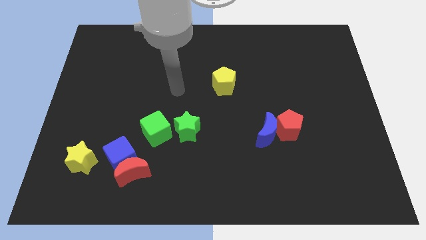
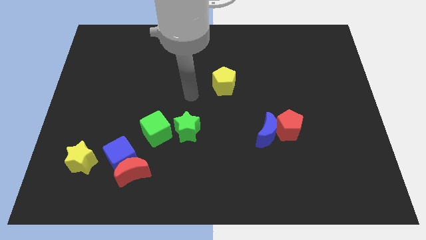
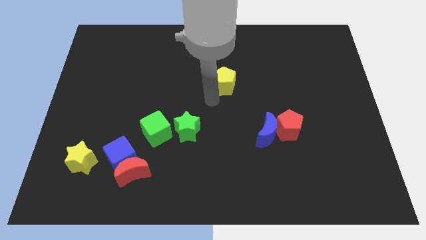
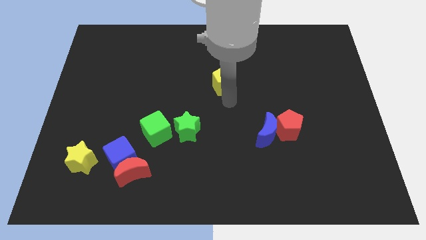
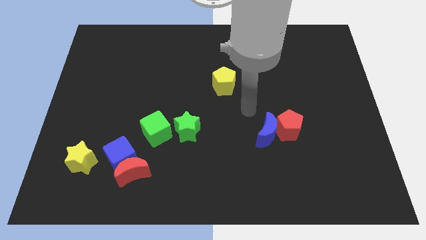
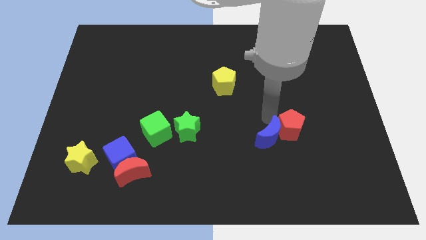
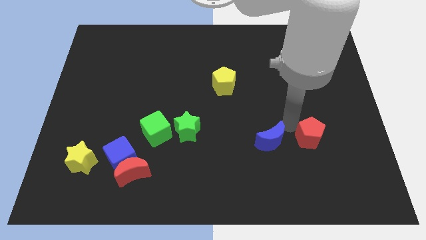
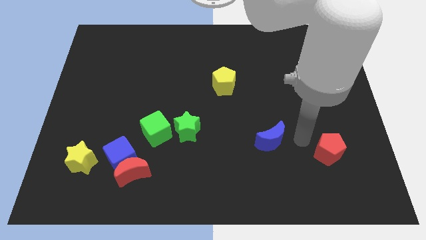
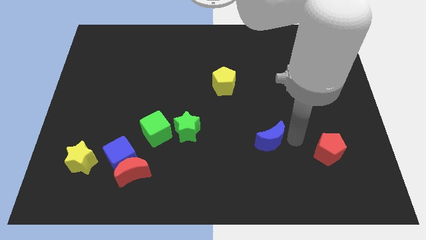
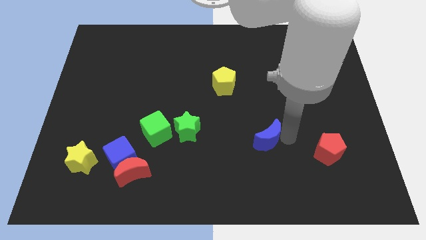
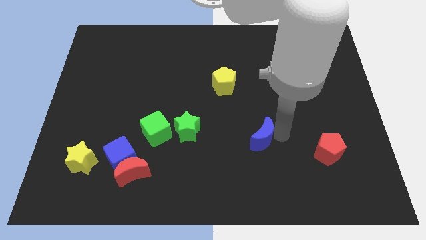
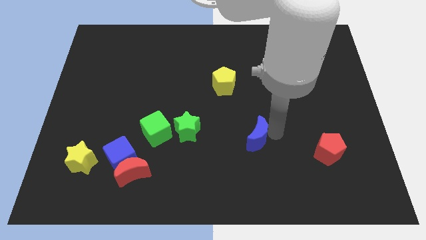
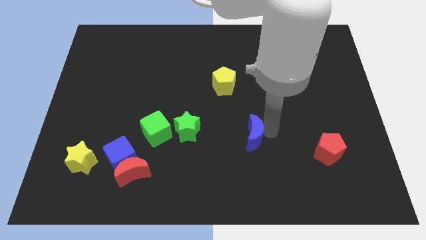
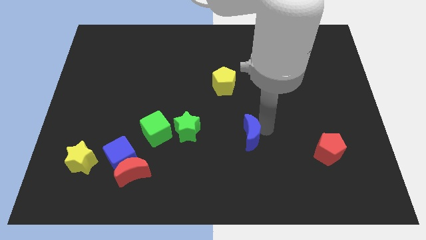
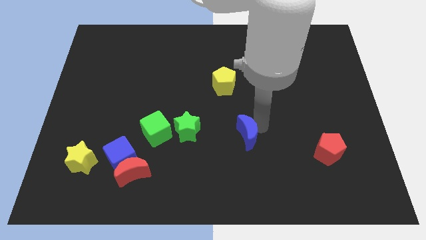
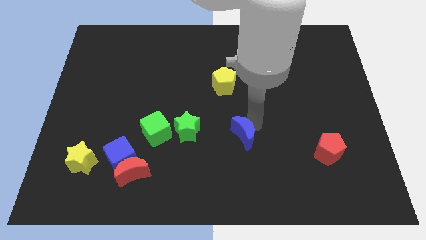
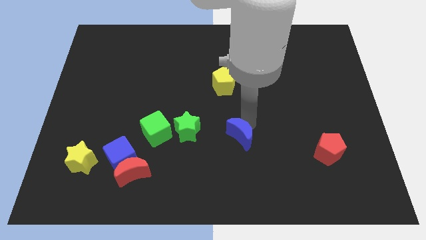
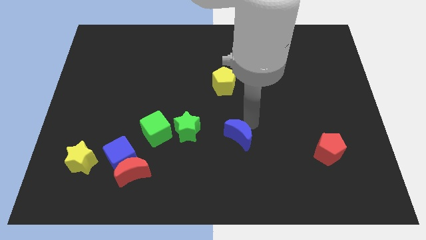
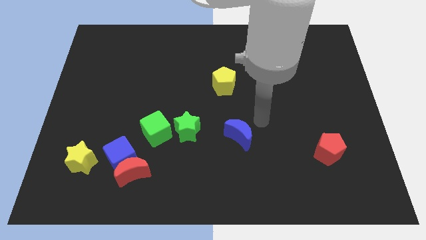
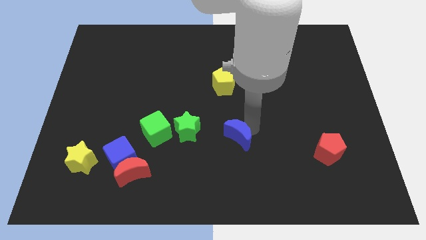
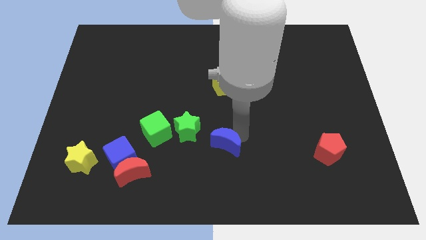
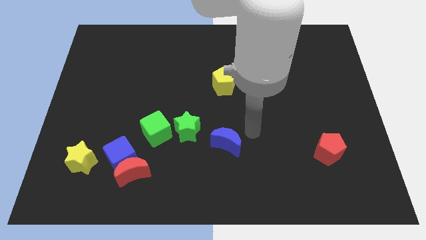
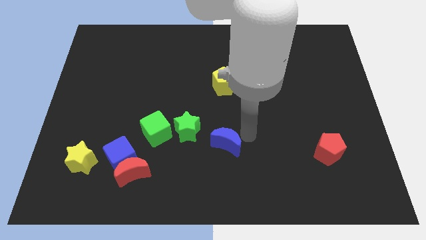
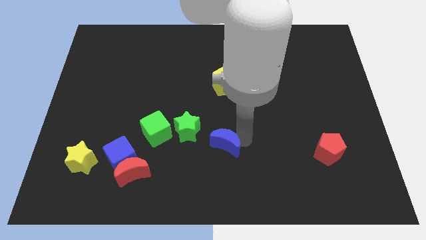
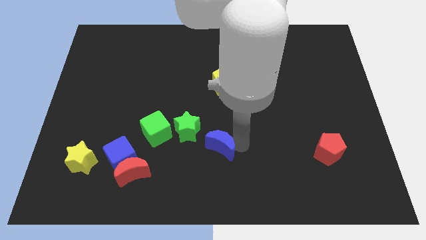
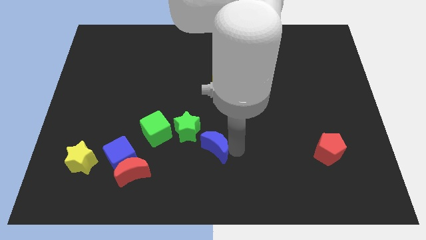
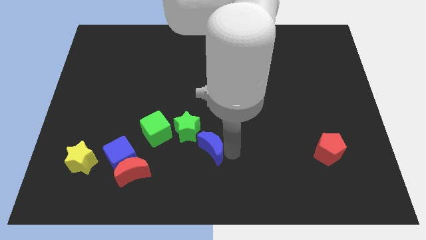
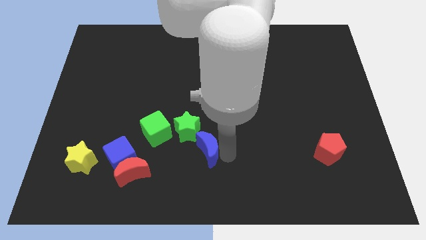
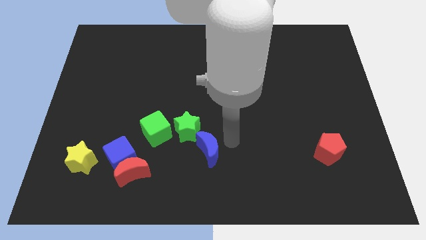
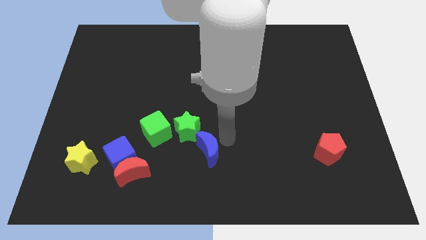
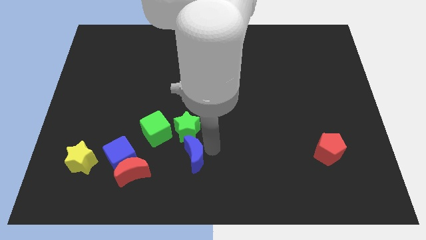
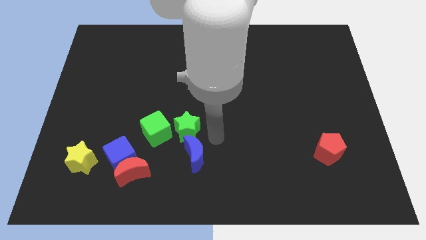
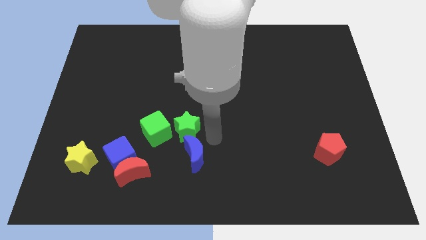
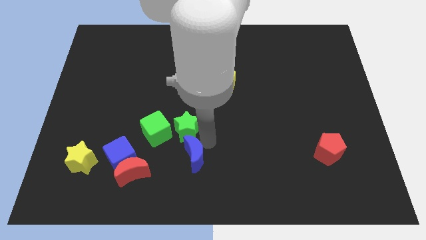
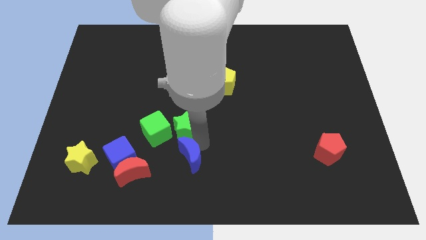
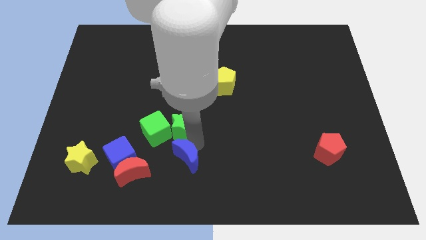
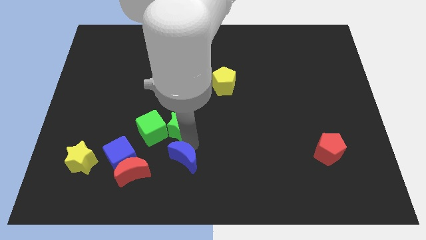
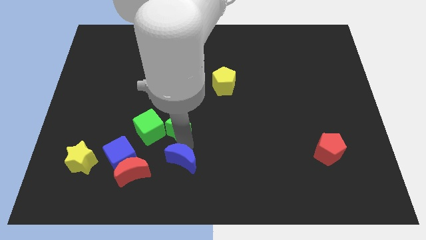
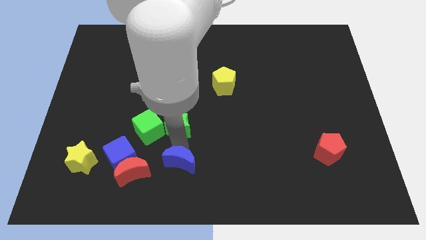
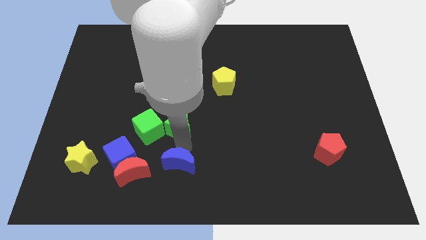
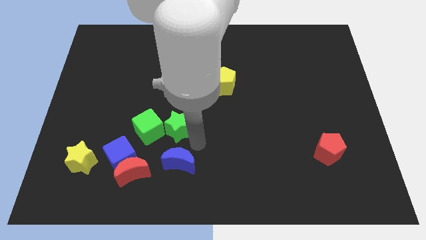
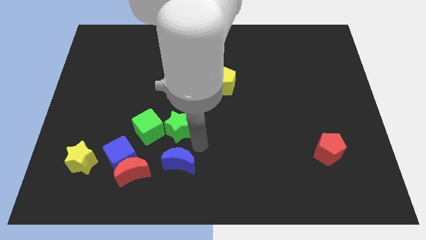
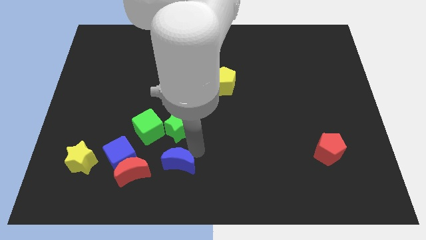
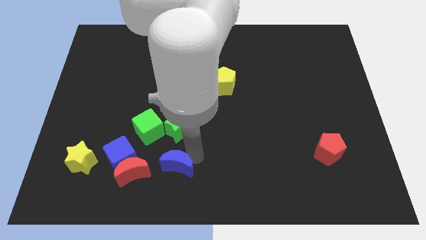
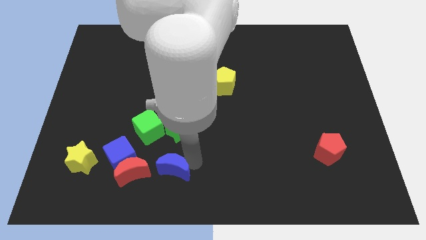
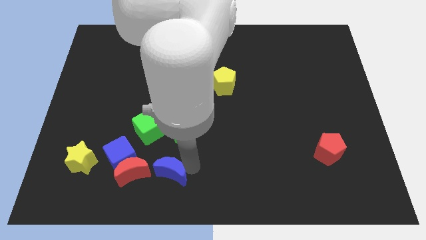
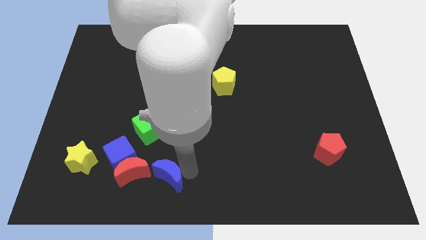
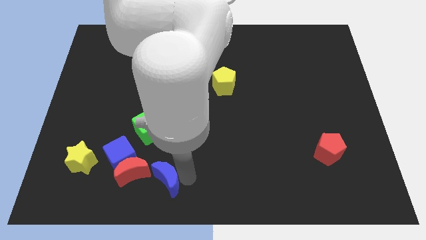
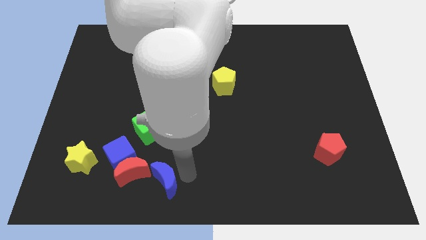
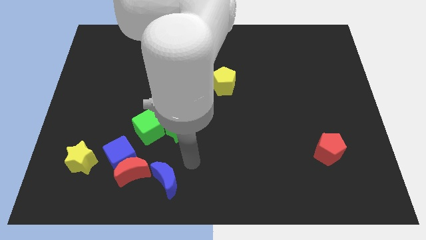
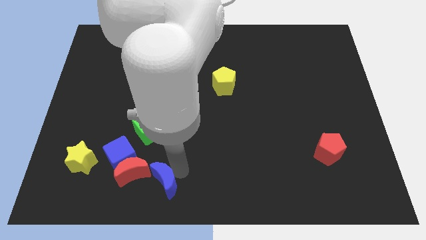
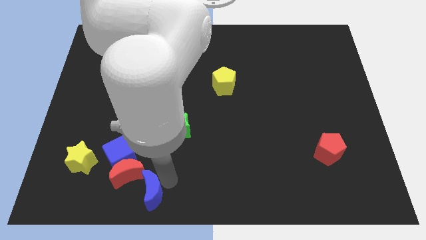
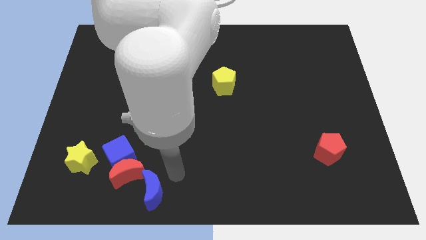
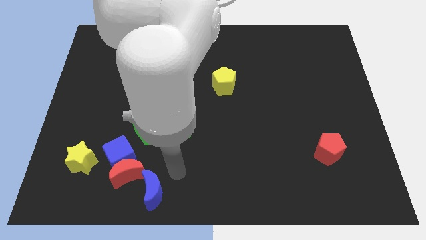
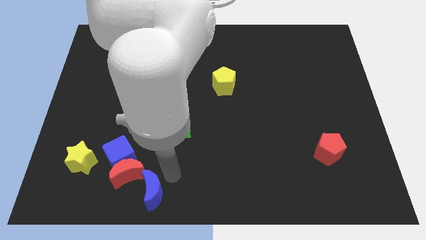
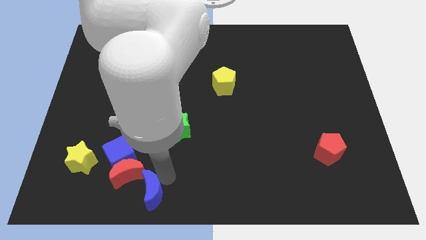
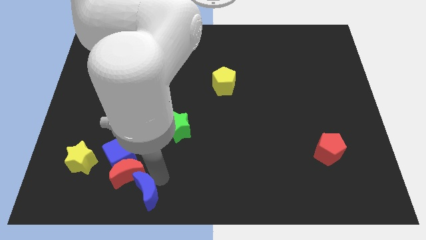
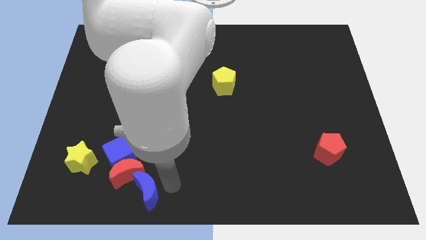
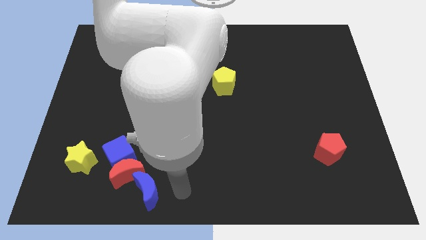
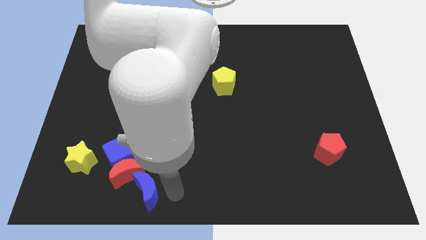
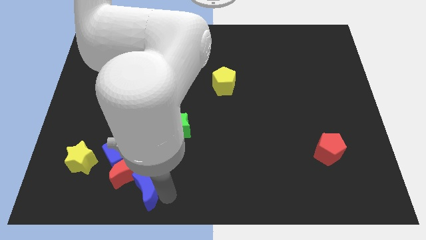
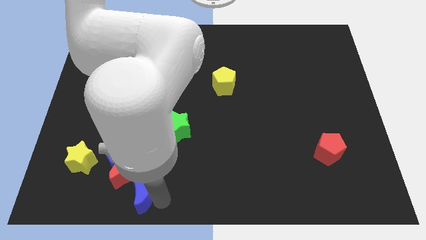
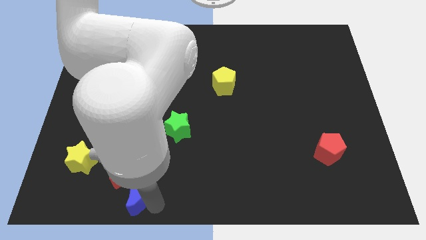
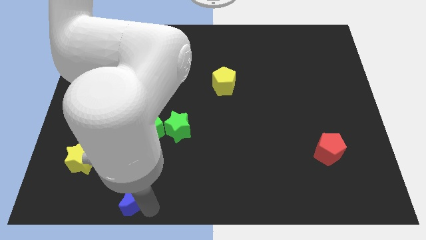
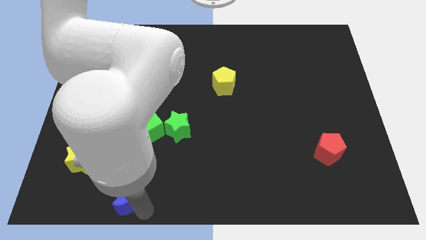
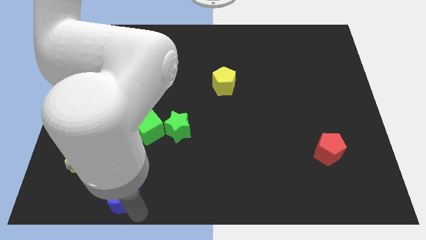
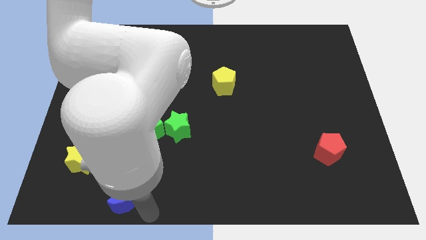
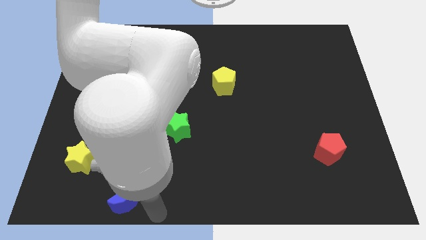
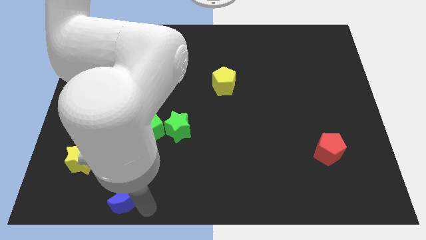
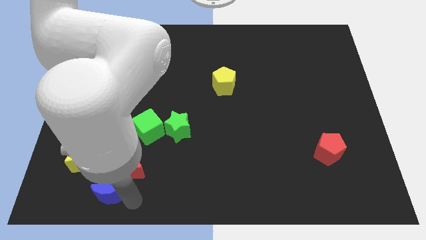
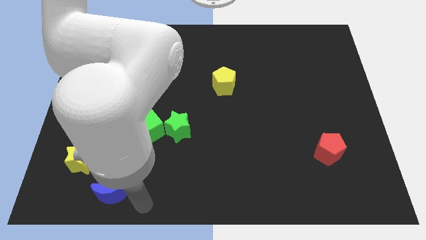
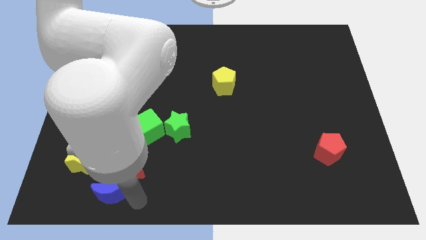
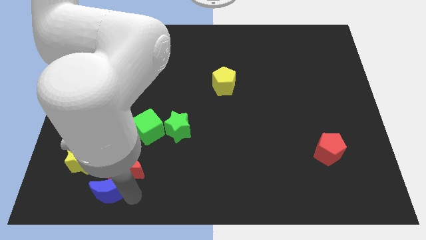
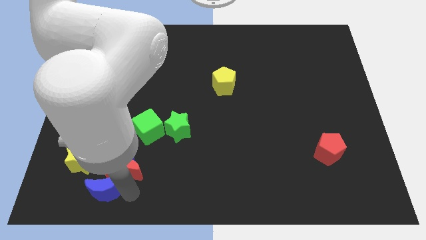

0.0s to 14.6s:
push the blue moon to the left side of the red moon
